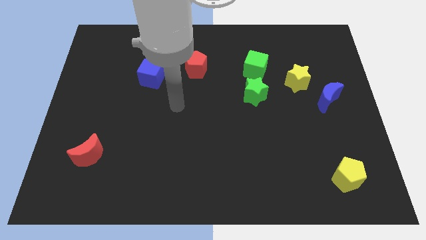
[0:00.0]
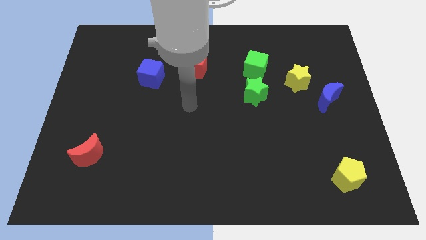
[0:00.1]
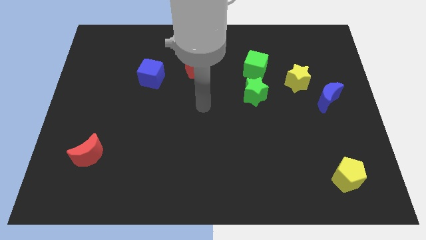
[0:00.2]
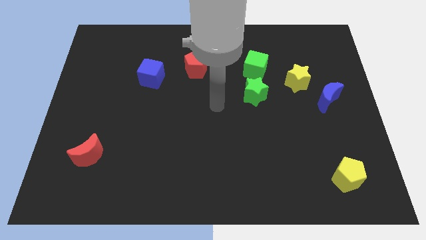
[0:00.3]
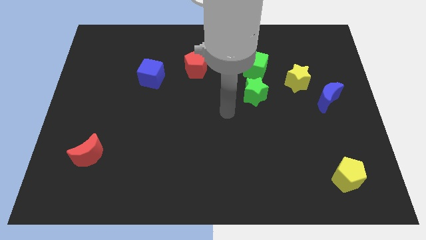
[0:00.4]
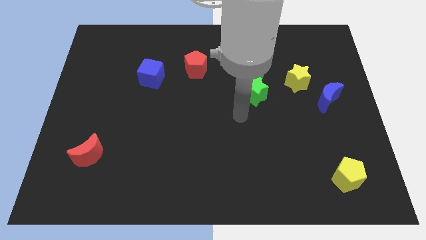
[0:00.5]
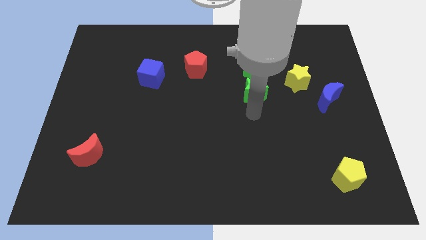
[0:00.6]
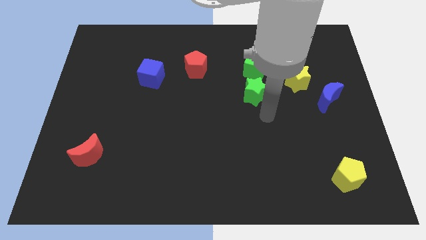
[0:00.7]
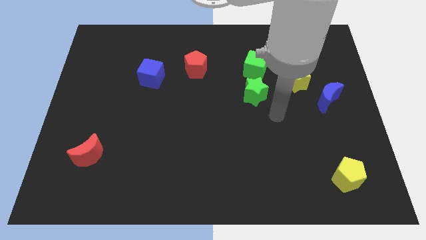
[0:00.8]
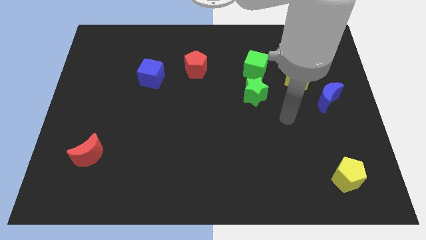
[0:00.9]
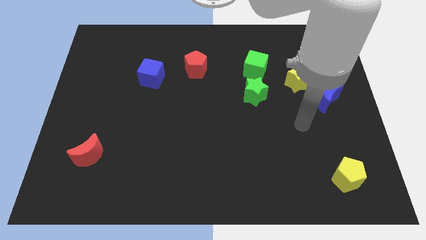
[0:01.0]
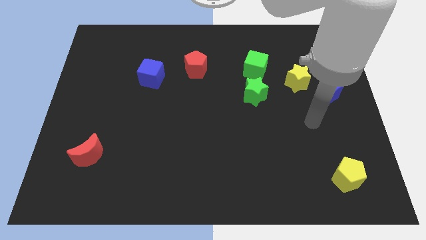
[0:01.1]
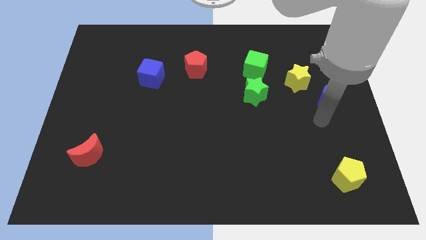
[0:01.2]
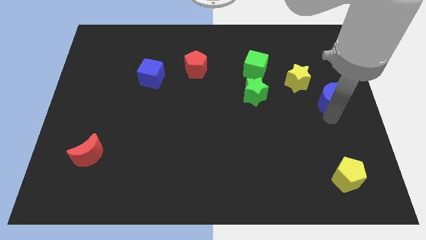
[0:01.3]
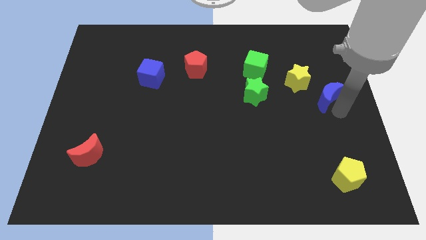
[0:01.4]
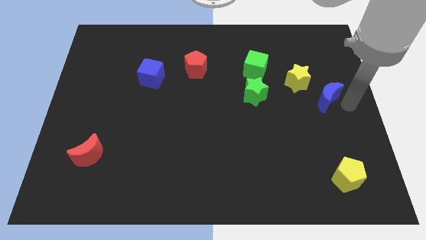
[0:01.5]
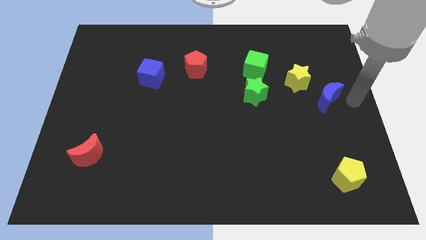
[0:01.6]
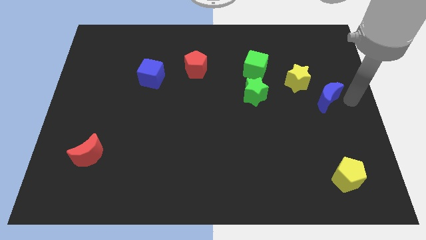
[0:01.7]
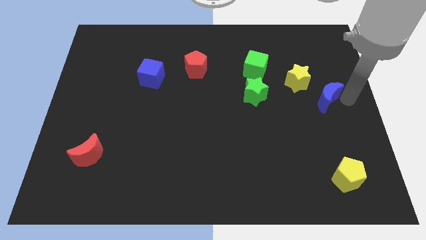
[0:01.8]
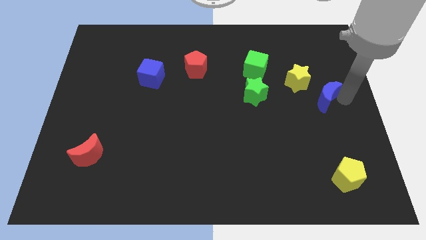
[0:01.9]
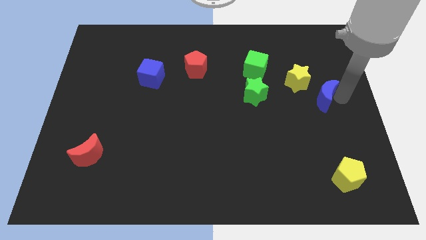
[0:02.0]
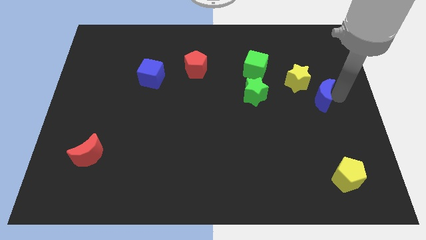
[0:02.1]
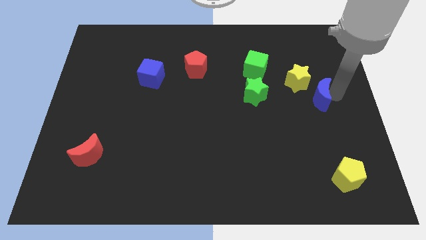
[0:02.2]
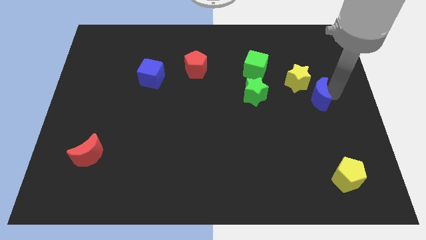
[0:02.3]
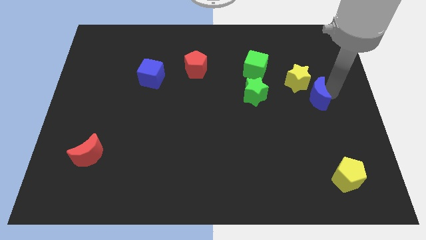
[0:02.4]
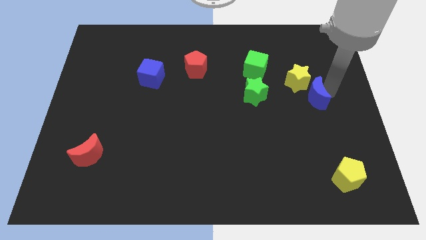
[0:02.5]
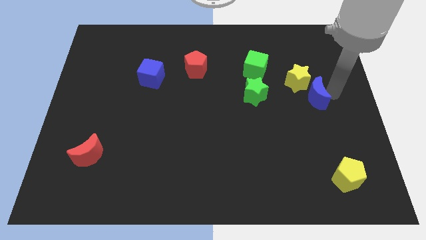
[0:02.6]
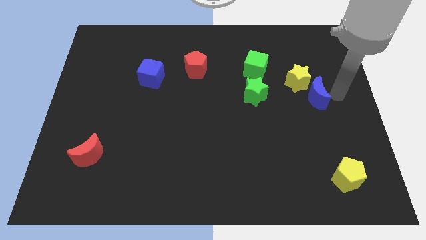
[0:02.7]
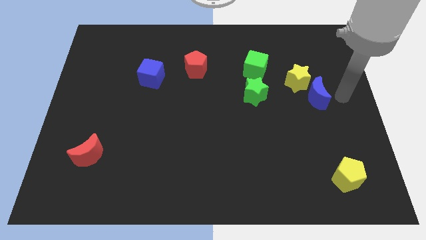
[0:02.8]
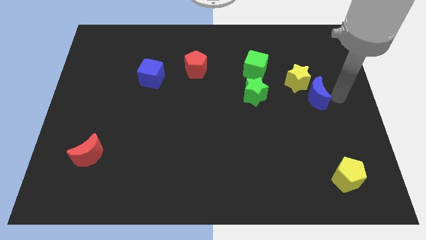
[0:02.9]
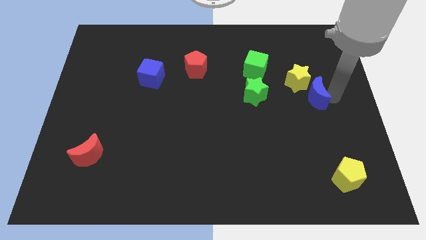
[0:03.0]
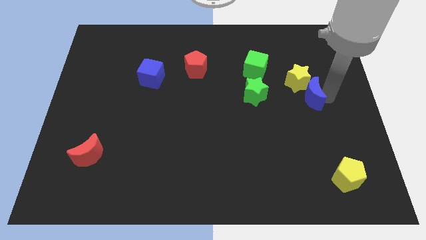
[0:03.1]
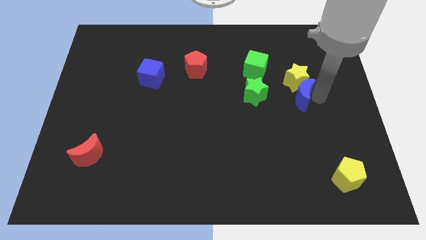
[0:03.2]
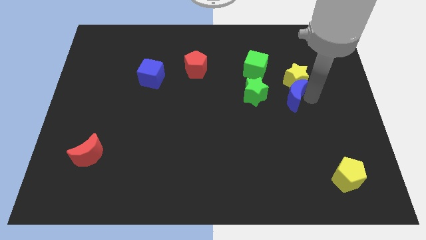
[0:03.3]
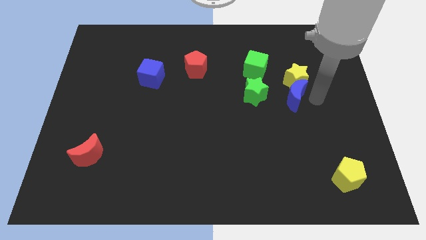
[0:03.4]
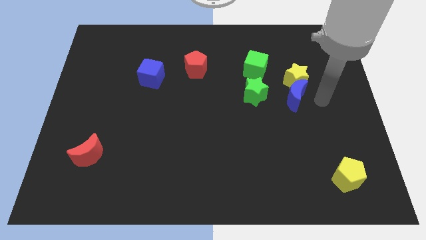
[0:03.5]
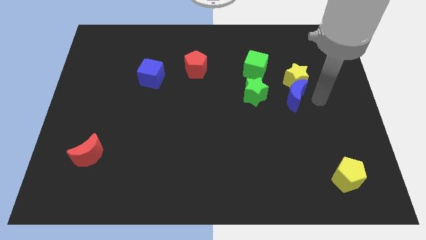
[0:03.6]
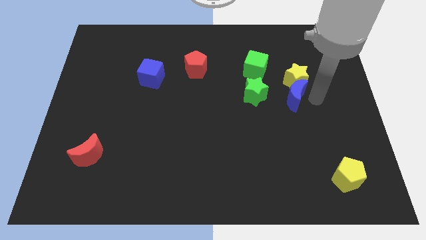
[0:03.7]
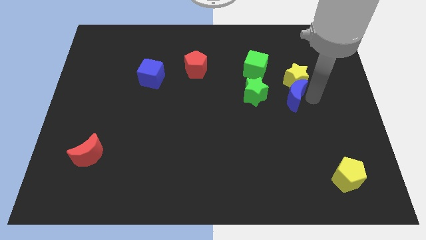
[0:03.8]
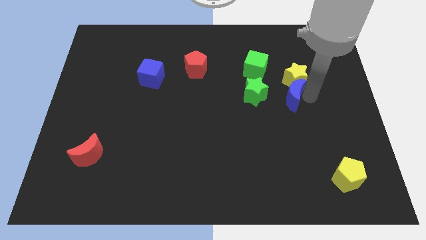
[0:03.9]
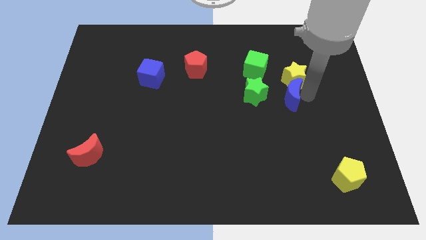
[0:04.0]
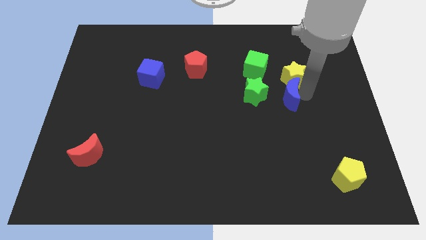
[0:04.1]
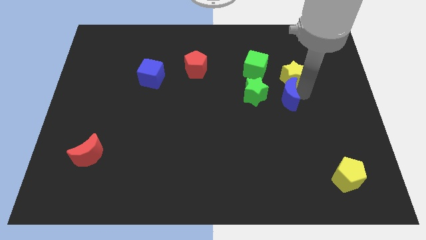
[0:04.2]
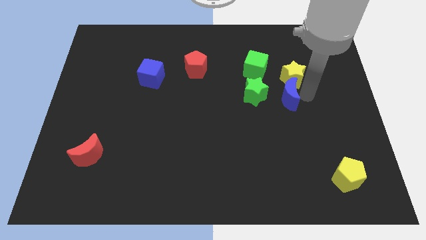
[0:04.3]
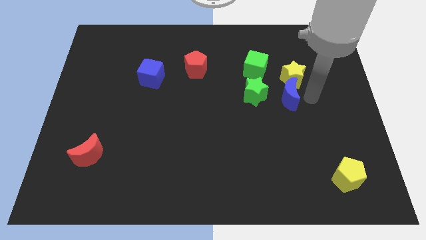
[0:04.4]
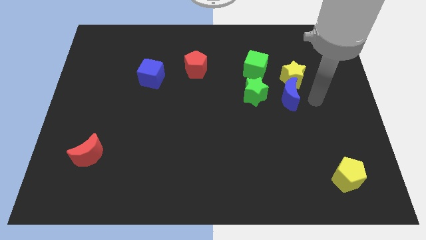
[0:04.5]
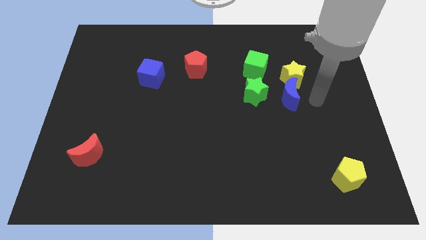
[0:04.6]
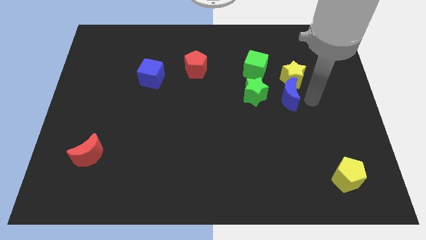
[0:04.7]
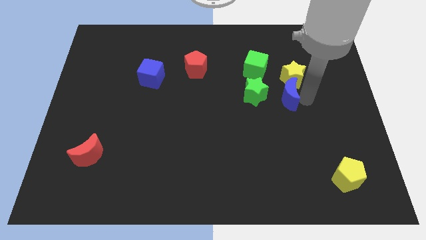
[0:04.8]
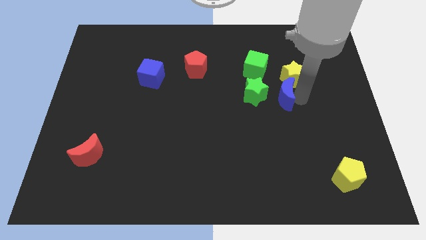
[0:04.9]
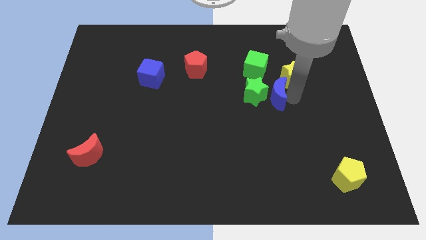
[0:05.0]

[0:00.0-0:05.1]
slide the blue moon close to the green star

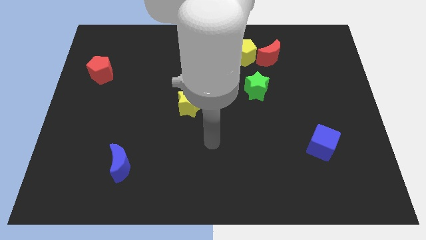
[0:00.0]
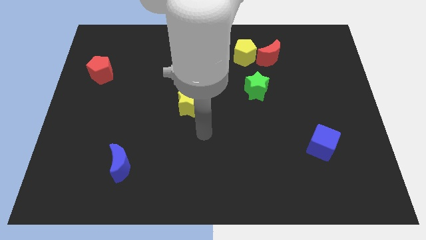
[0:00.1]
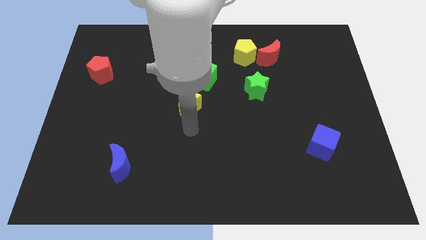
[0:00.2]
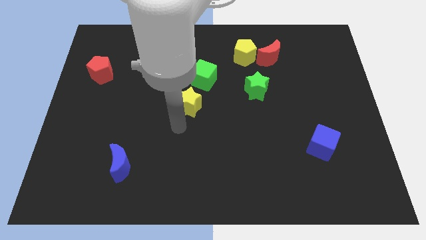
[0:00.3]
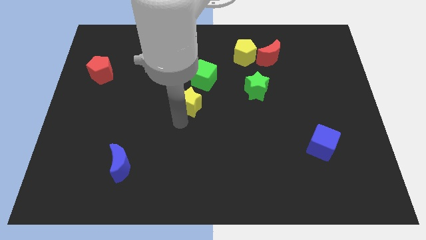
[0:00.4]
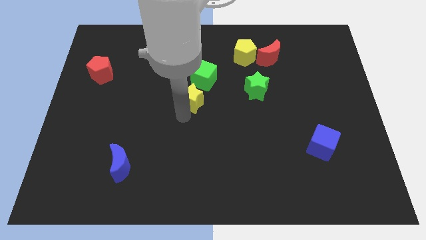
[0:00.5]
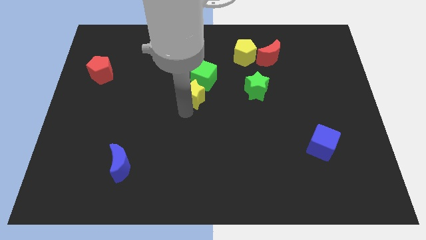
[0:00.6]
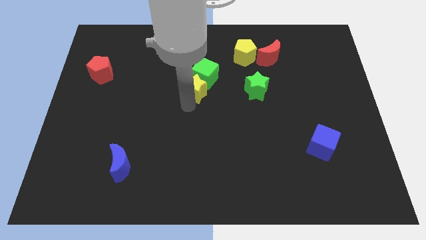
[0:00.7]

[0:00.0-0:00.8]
slide the yellow star close to the green cube

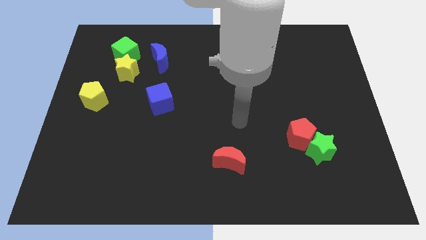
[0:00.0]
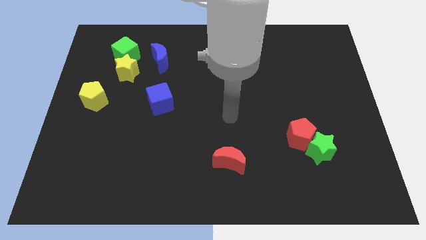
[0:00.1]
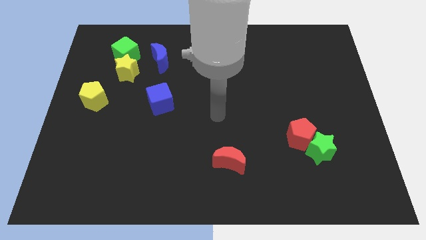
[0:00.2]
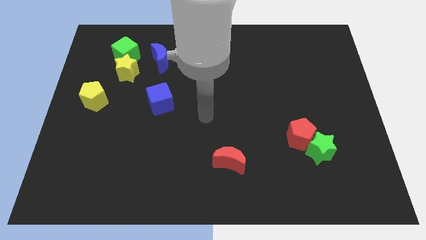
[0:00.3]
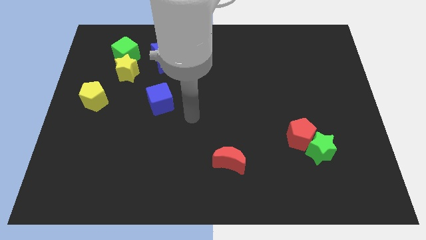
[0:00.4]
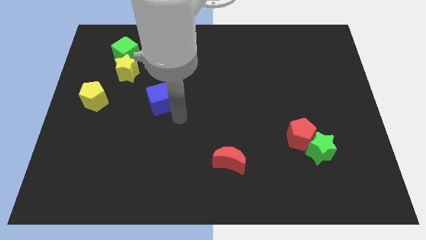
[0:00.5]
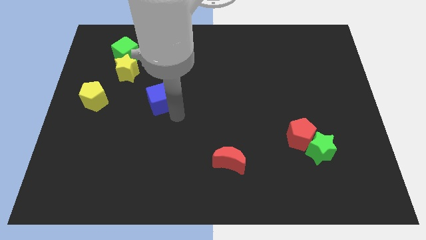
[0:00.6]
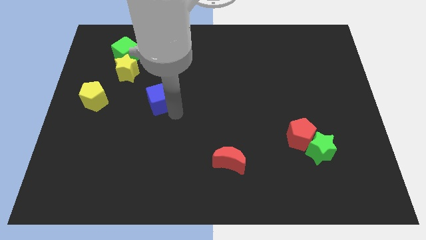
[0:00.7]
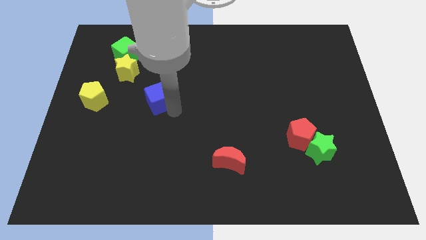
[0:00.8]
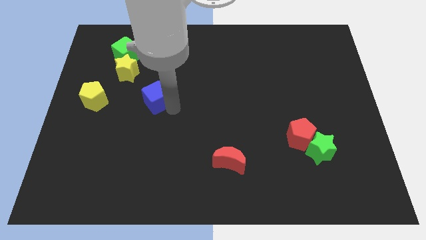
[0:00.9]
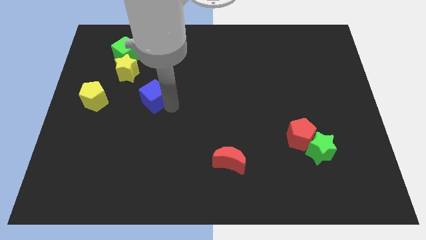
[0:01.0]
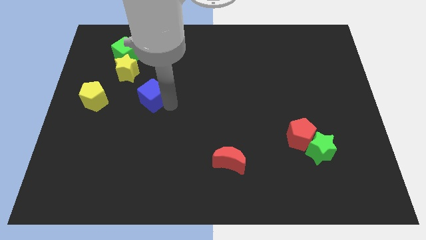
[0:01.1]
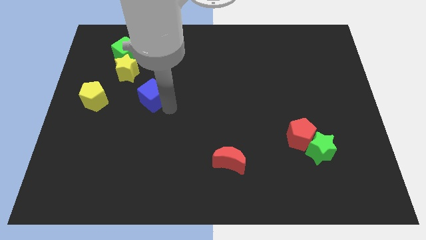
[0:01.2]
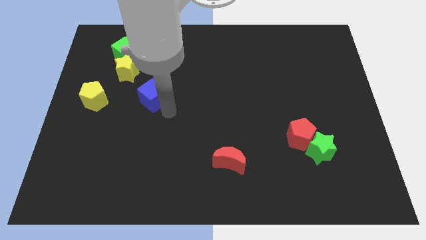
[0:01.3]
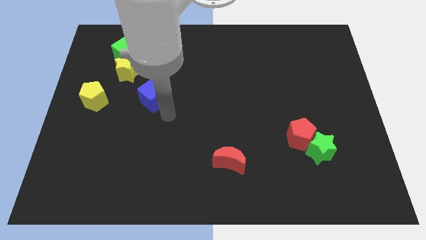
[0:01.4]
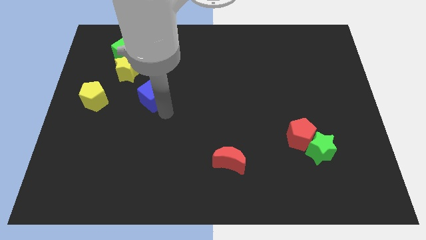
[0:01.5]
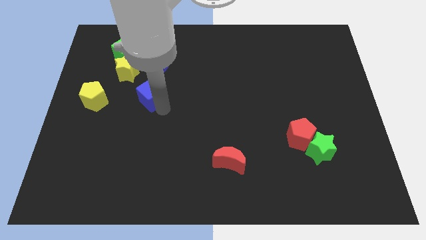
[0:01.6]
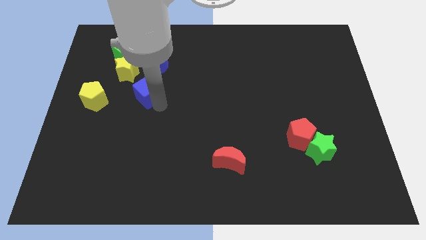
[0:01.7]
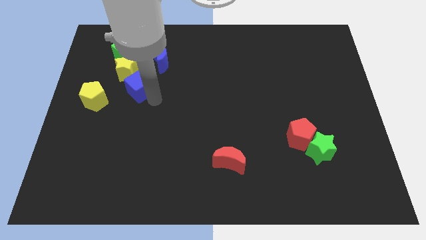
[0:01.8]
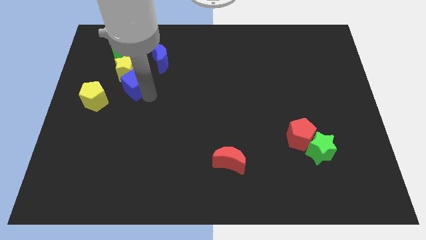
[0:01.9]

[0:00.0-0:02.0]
put the blue cube to the yellow star
